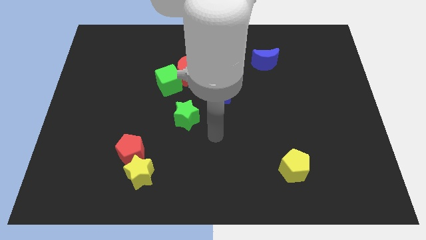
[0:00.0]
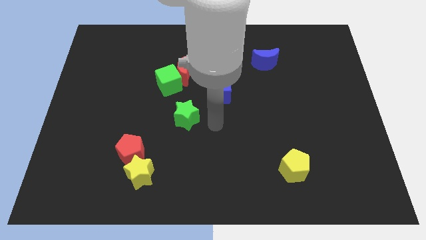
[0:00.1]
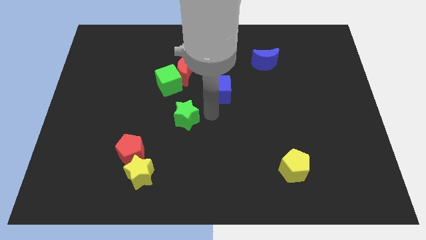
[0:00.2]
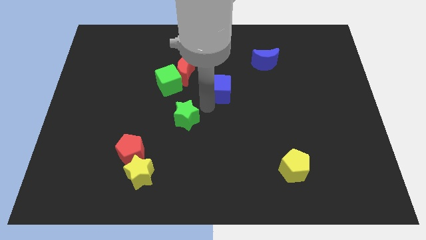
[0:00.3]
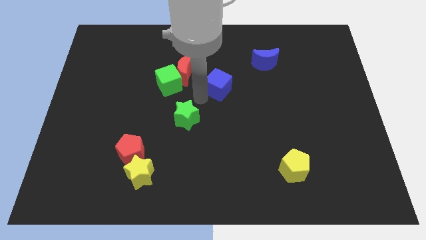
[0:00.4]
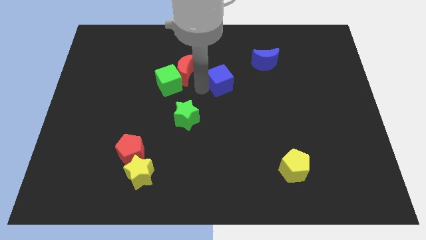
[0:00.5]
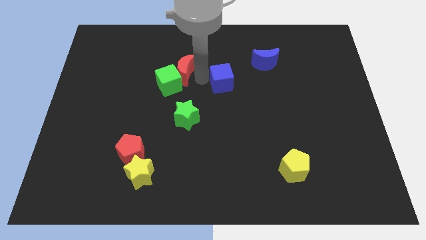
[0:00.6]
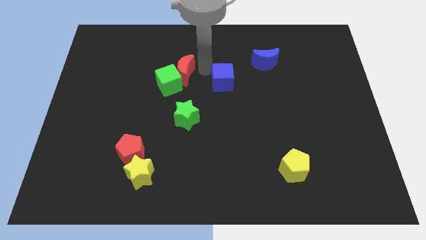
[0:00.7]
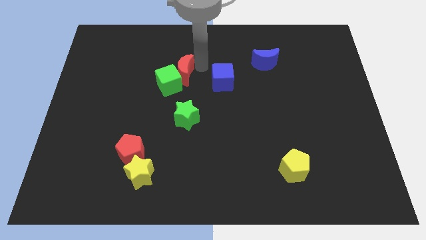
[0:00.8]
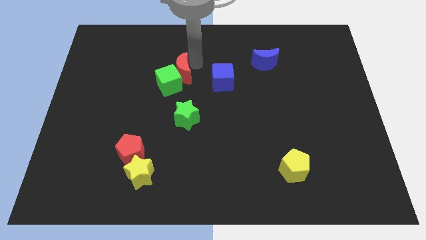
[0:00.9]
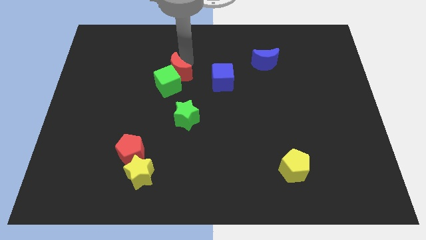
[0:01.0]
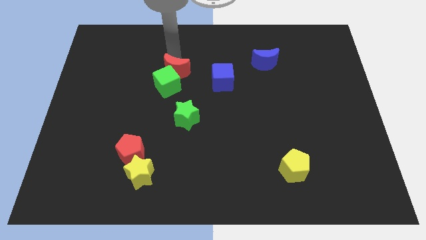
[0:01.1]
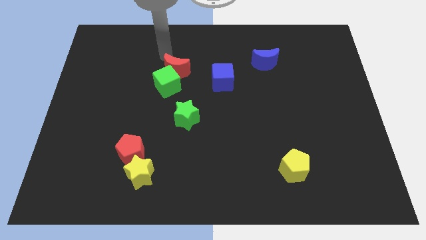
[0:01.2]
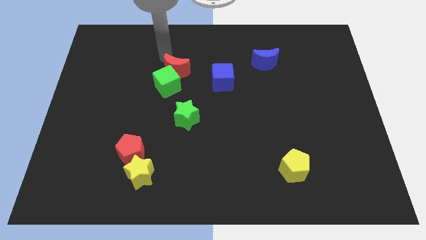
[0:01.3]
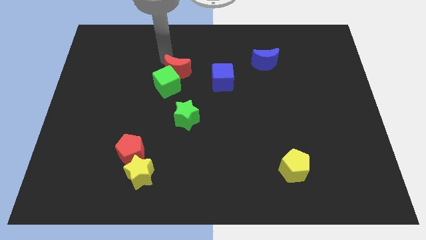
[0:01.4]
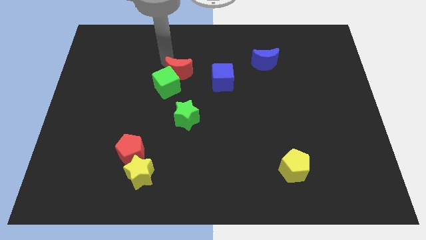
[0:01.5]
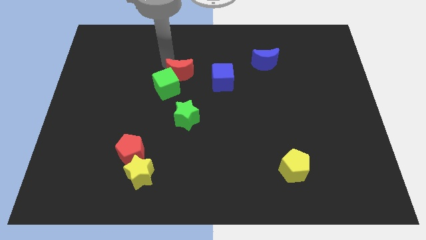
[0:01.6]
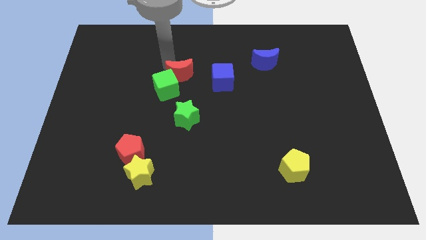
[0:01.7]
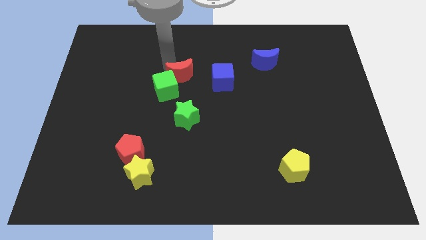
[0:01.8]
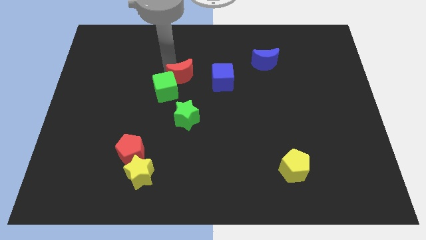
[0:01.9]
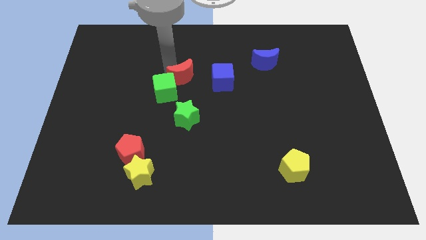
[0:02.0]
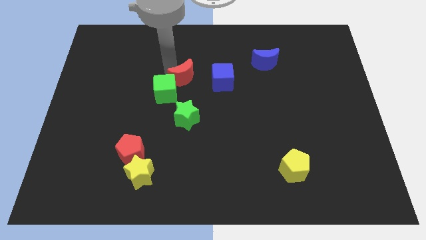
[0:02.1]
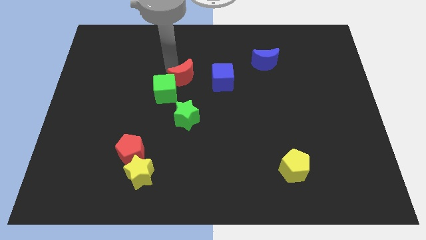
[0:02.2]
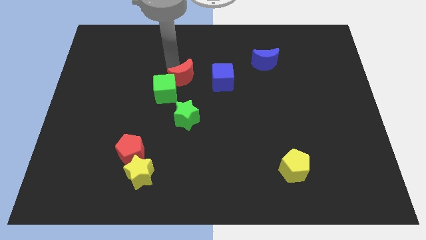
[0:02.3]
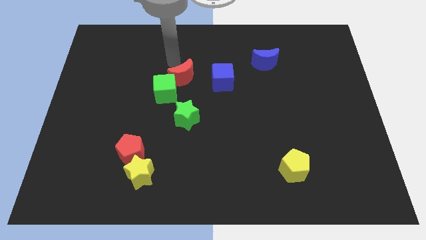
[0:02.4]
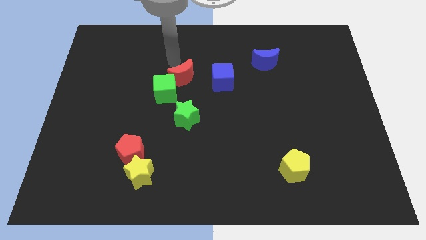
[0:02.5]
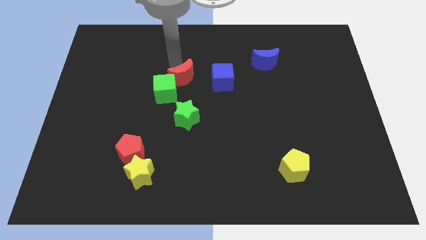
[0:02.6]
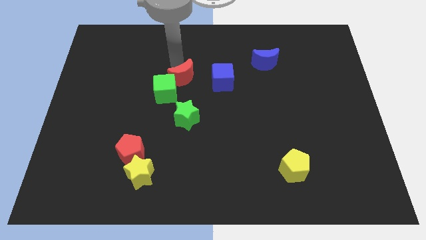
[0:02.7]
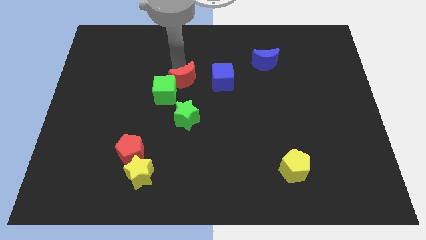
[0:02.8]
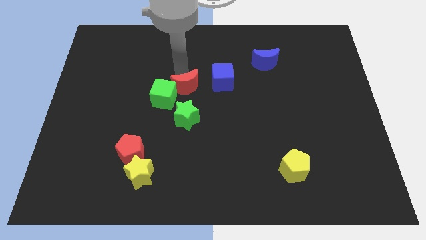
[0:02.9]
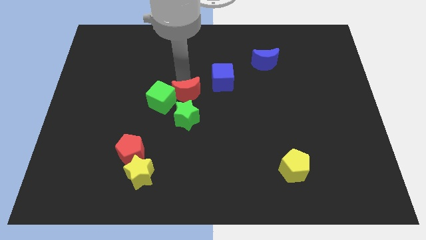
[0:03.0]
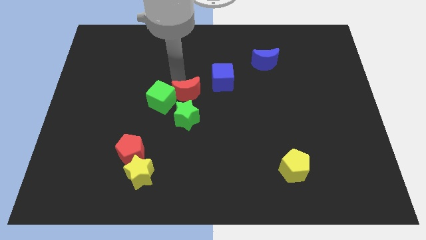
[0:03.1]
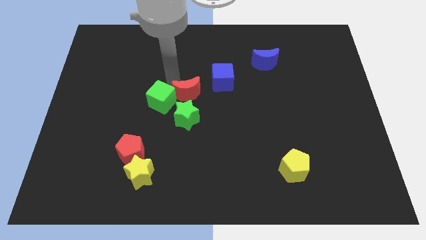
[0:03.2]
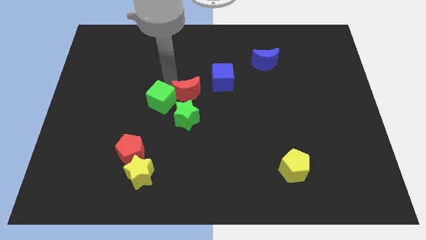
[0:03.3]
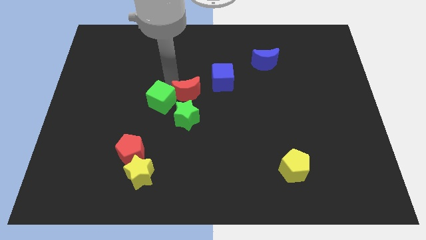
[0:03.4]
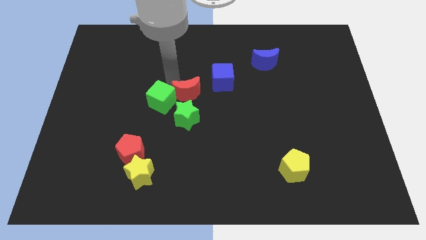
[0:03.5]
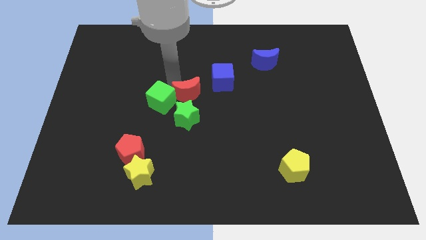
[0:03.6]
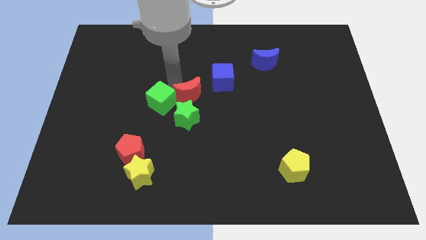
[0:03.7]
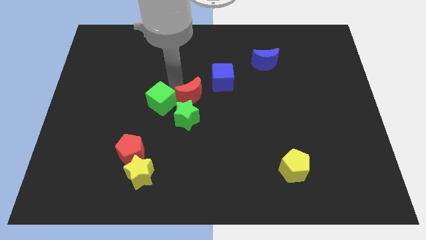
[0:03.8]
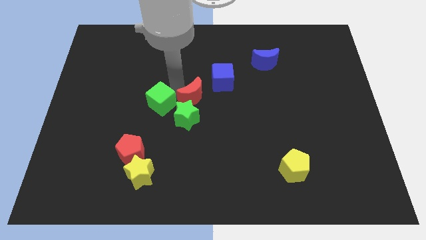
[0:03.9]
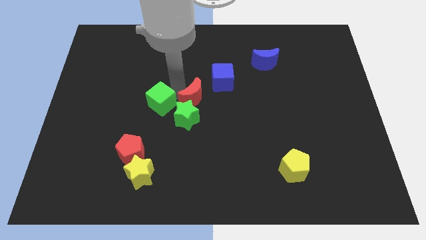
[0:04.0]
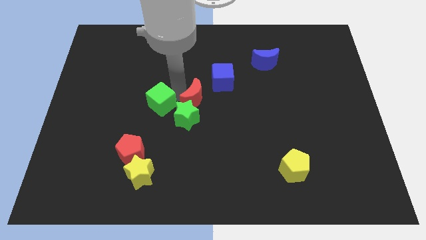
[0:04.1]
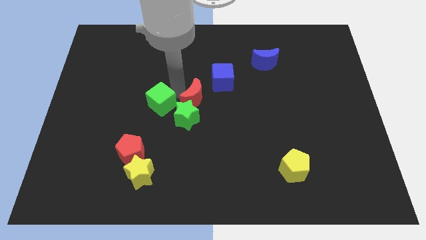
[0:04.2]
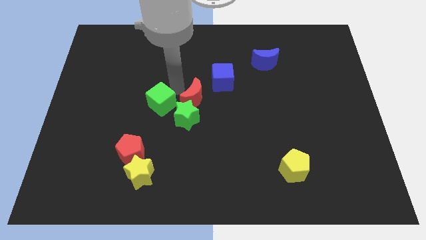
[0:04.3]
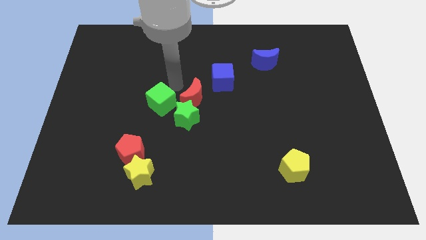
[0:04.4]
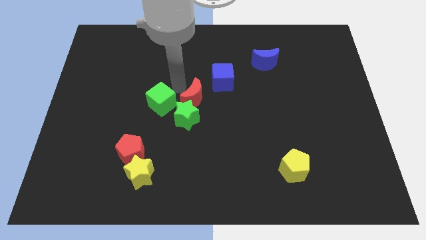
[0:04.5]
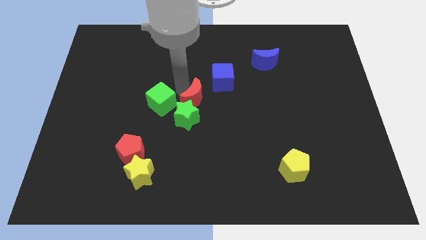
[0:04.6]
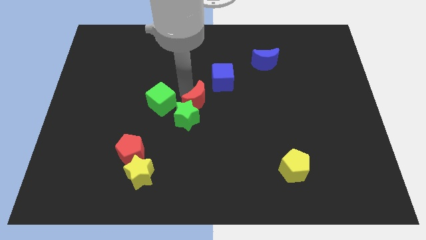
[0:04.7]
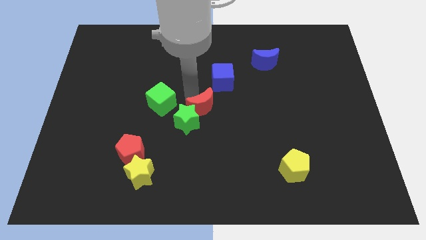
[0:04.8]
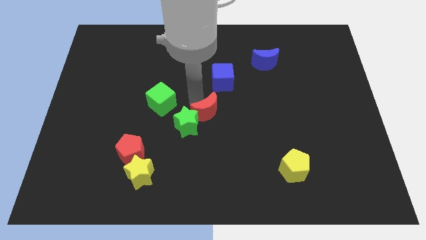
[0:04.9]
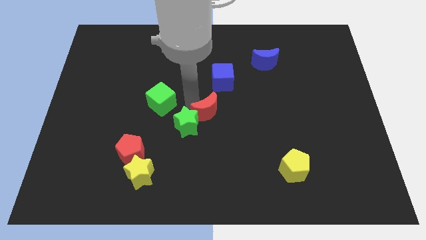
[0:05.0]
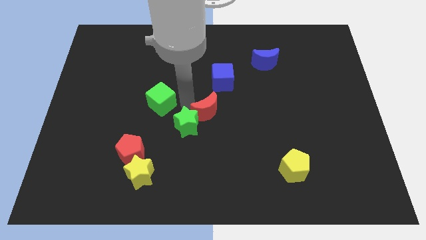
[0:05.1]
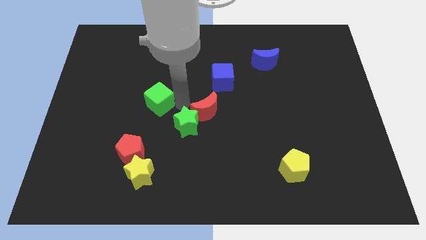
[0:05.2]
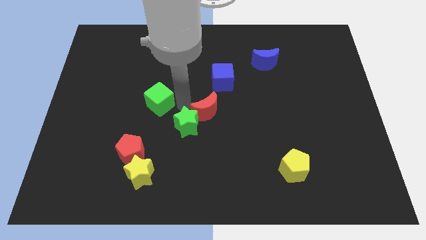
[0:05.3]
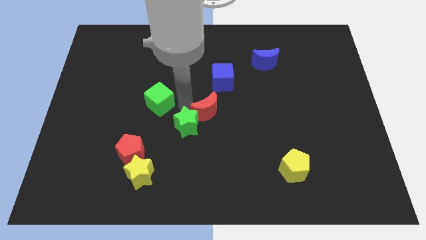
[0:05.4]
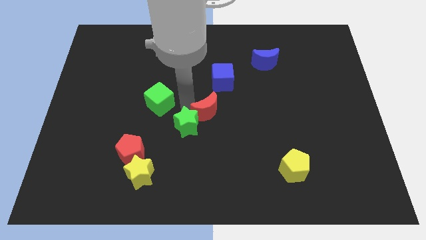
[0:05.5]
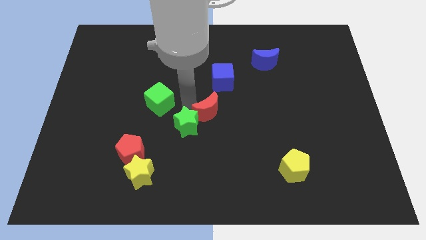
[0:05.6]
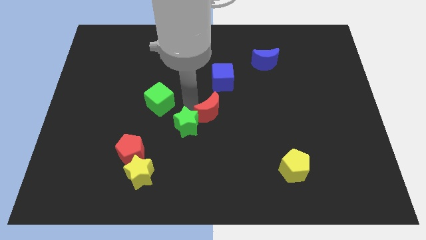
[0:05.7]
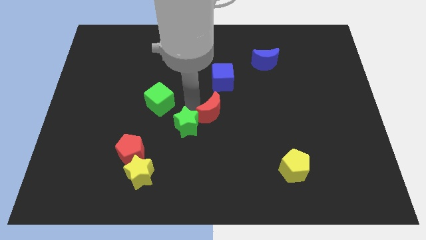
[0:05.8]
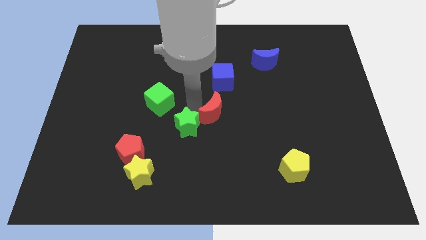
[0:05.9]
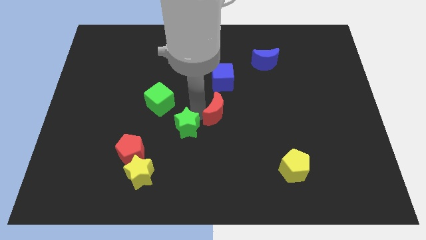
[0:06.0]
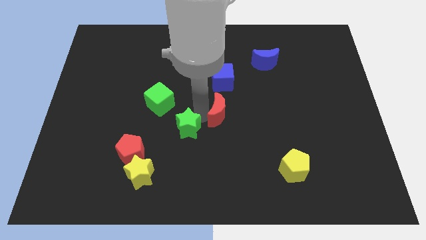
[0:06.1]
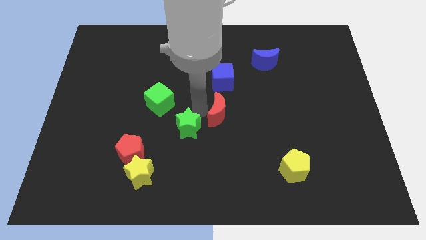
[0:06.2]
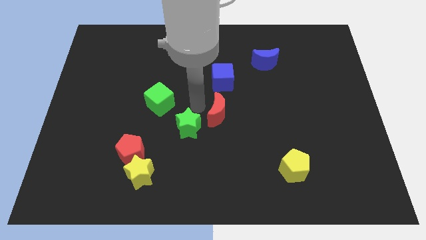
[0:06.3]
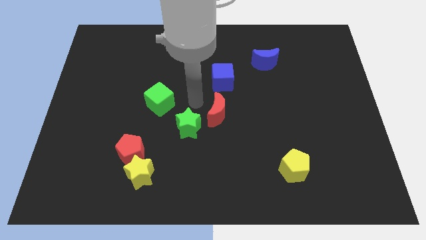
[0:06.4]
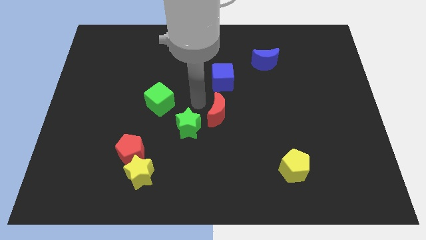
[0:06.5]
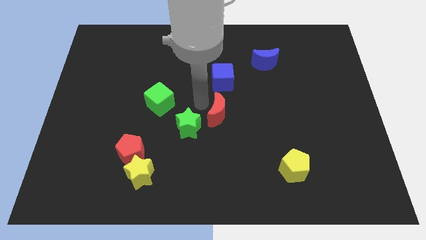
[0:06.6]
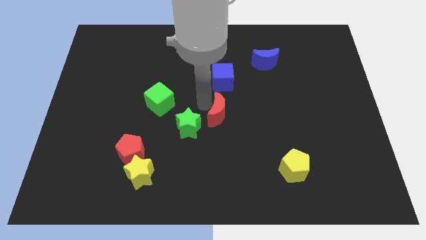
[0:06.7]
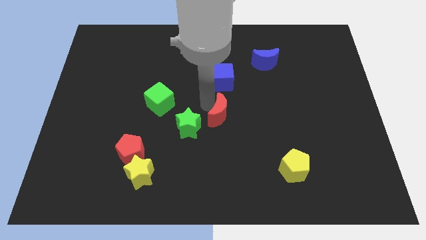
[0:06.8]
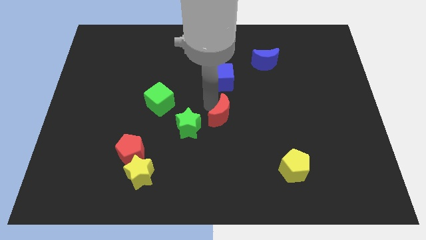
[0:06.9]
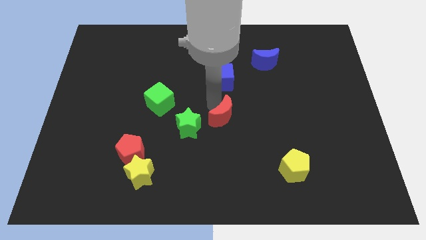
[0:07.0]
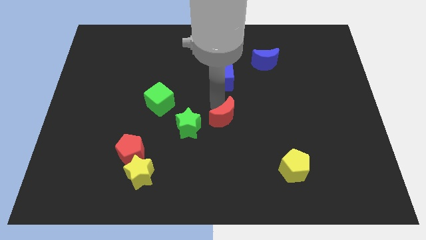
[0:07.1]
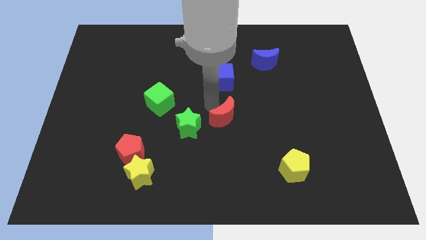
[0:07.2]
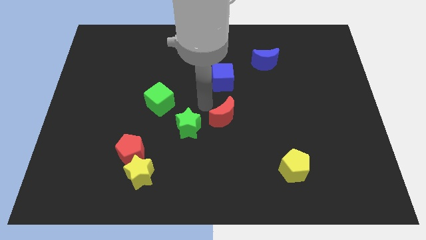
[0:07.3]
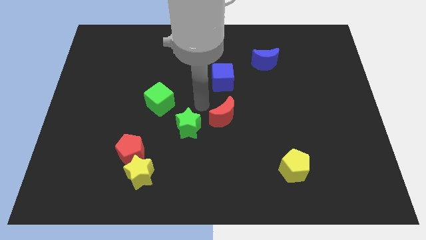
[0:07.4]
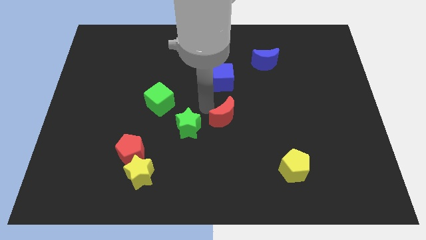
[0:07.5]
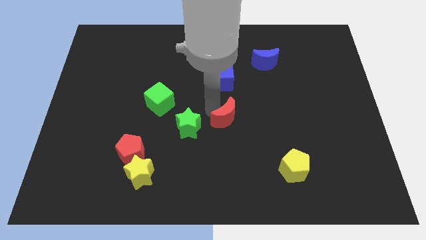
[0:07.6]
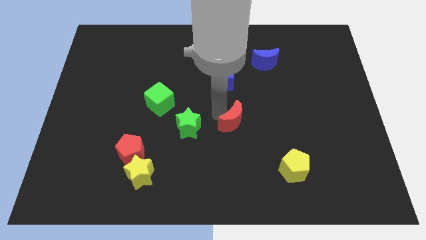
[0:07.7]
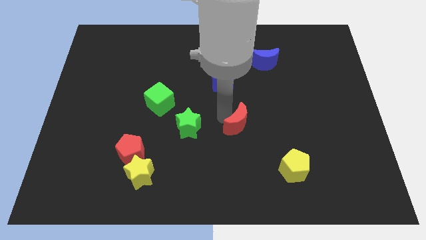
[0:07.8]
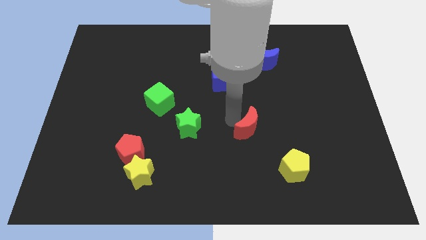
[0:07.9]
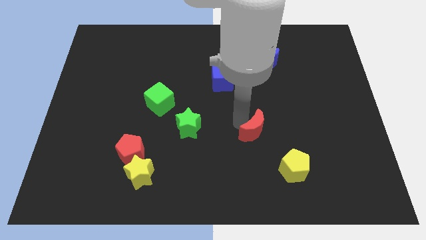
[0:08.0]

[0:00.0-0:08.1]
put the red moon to the top left of the yellow pentagon
